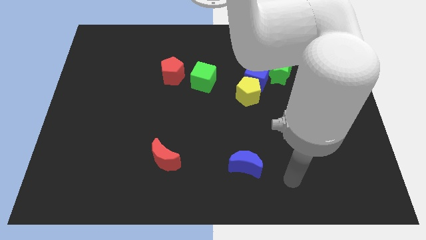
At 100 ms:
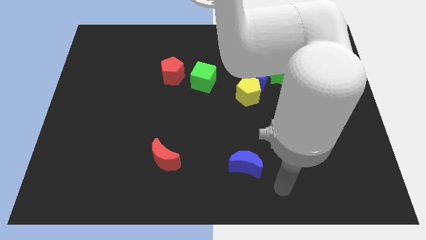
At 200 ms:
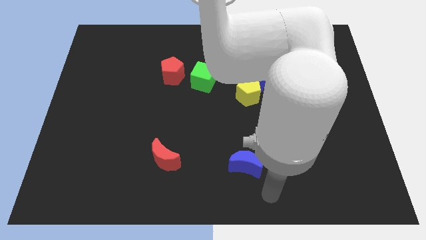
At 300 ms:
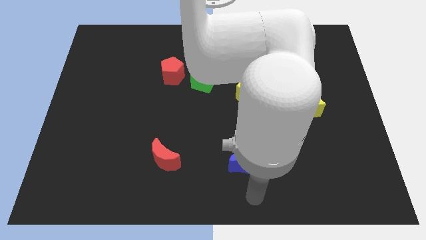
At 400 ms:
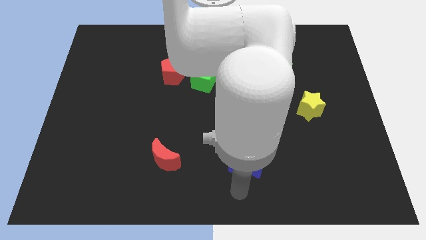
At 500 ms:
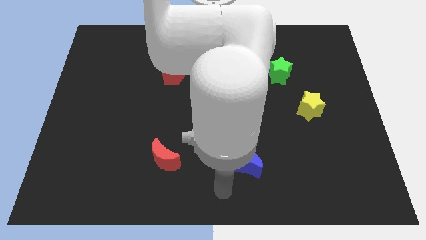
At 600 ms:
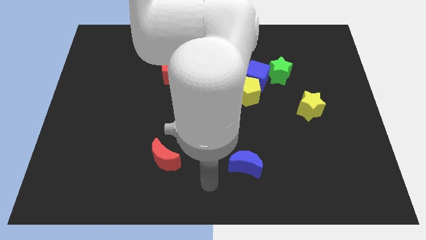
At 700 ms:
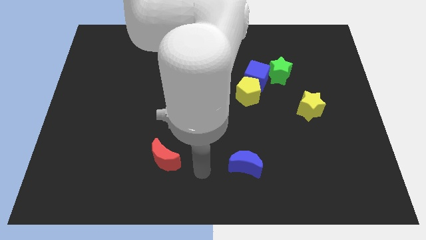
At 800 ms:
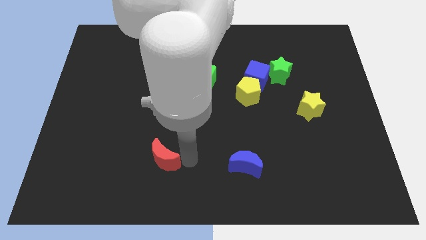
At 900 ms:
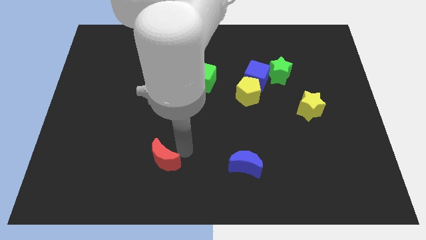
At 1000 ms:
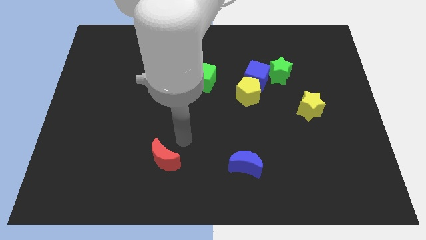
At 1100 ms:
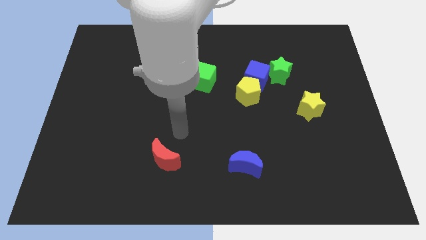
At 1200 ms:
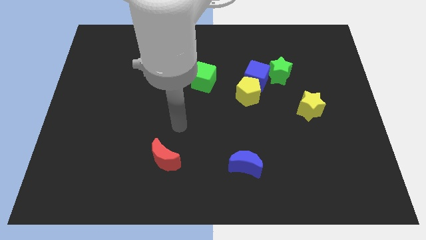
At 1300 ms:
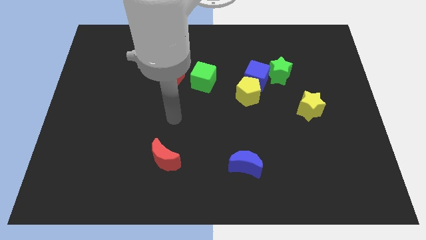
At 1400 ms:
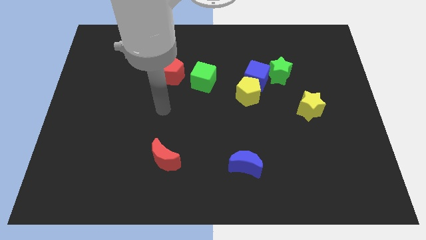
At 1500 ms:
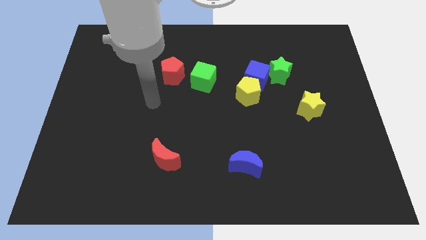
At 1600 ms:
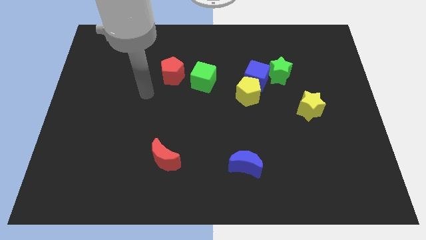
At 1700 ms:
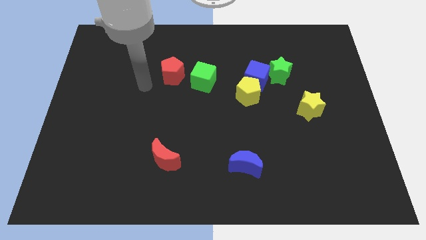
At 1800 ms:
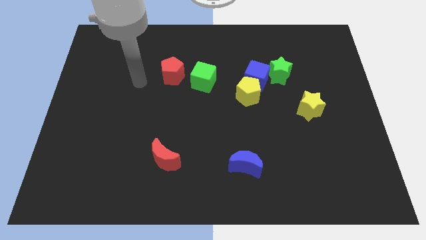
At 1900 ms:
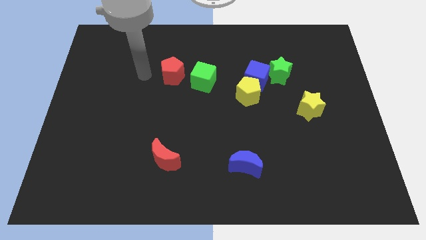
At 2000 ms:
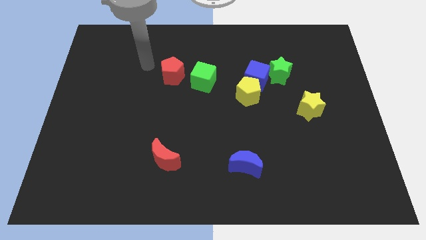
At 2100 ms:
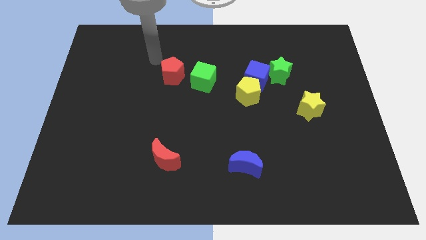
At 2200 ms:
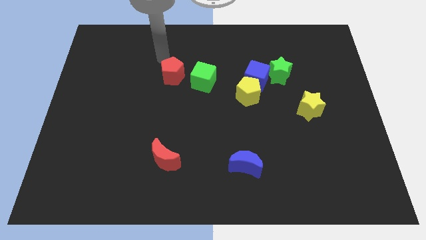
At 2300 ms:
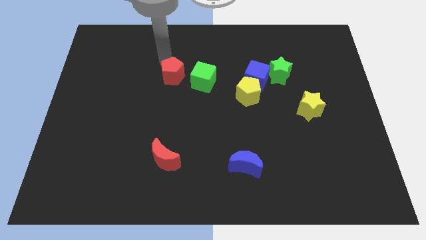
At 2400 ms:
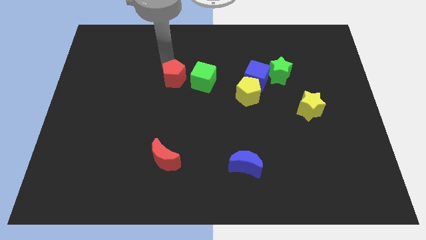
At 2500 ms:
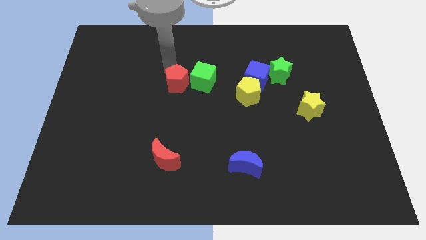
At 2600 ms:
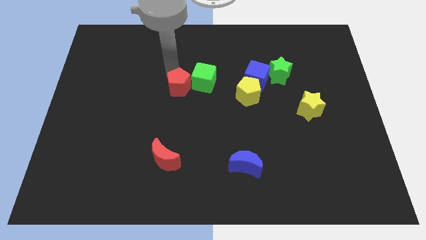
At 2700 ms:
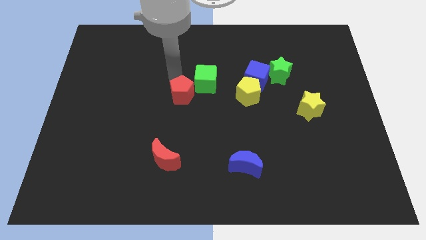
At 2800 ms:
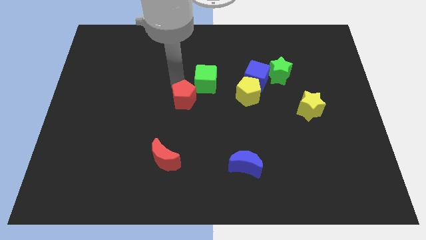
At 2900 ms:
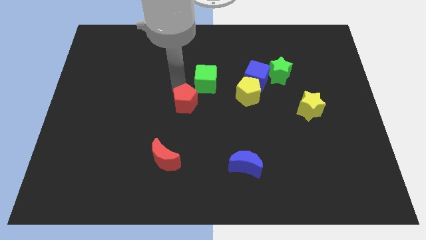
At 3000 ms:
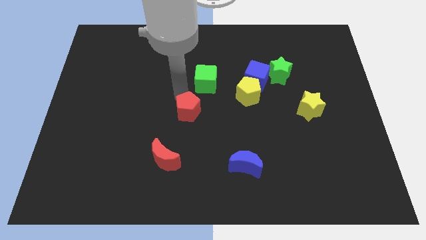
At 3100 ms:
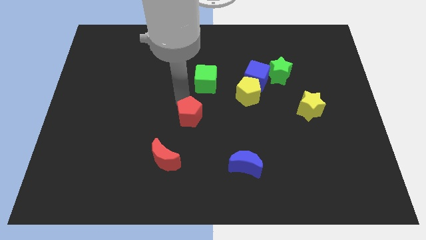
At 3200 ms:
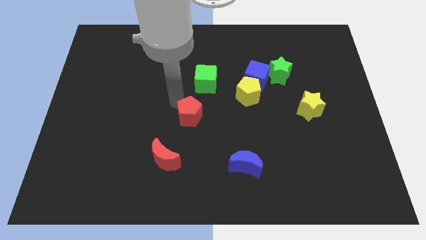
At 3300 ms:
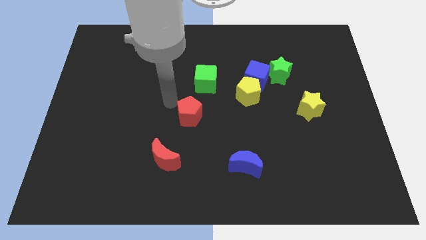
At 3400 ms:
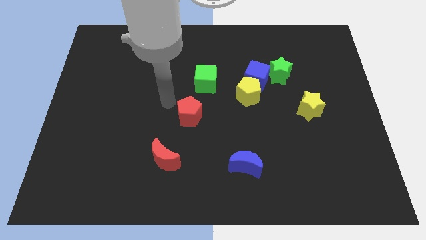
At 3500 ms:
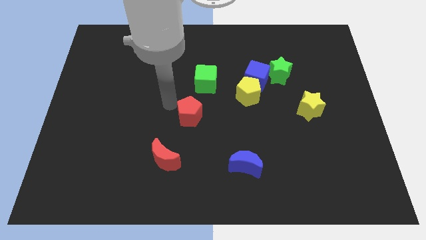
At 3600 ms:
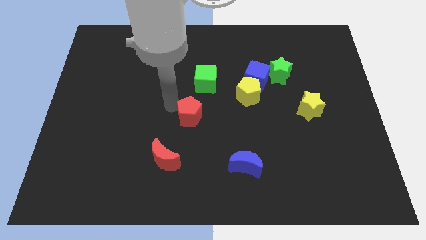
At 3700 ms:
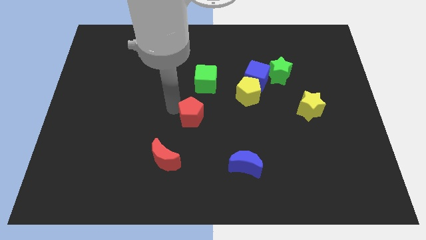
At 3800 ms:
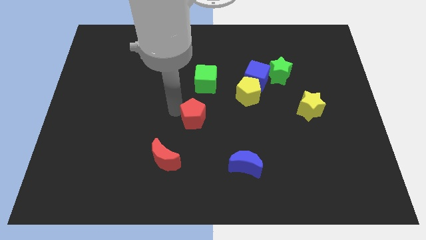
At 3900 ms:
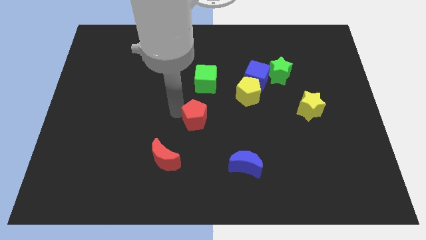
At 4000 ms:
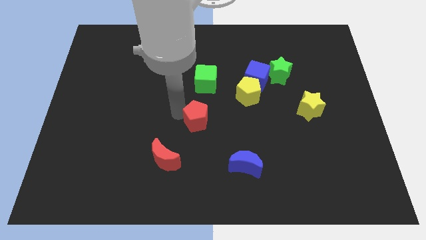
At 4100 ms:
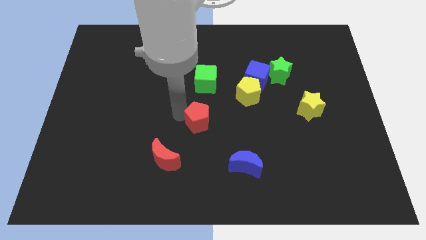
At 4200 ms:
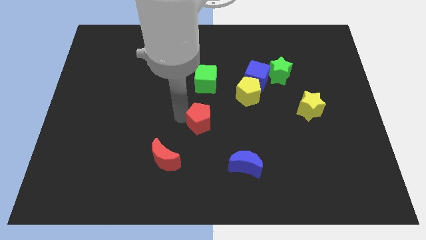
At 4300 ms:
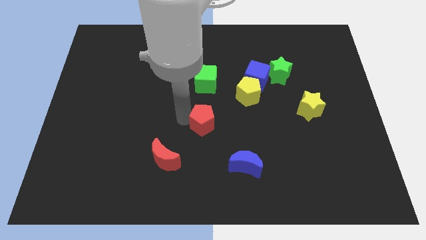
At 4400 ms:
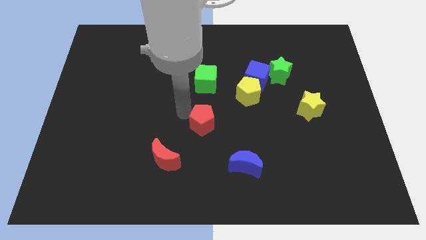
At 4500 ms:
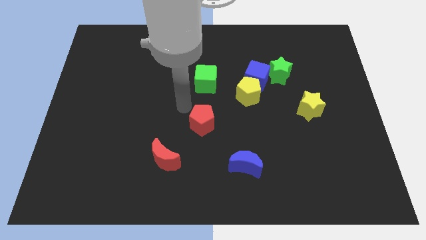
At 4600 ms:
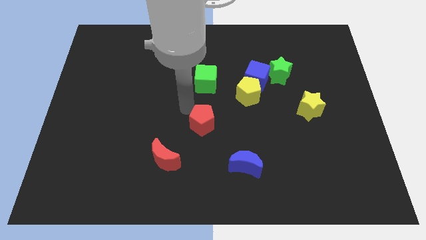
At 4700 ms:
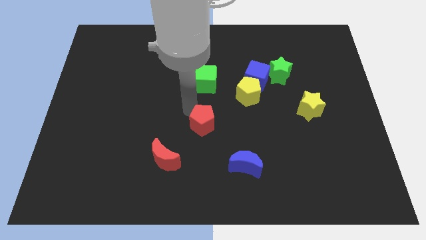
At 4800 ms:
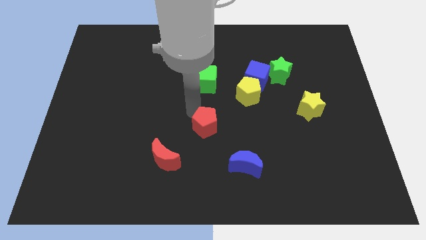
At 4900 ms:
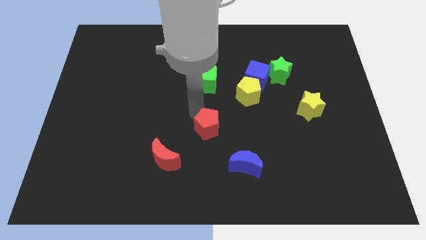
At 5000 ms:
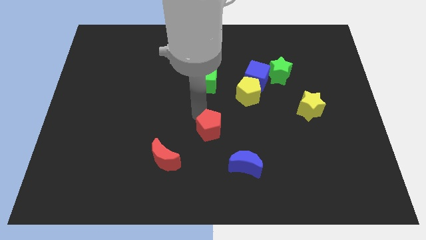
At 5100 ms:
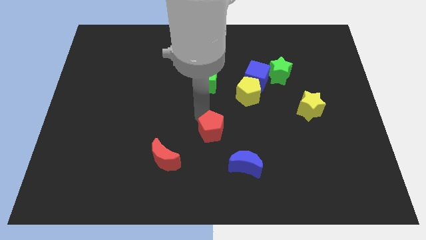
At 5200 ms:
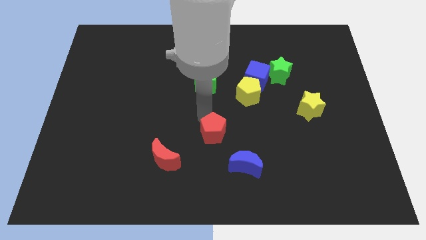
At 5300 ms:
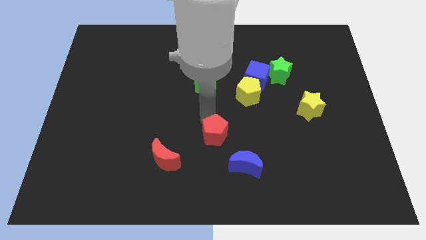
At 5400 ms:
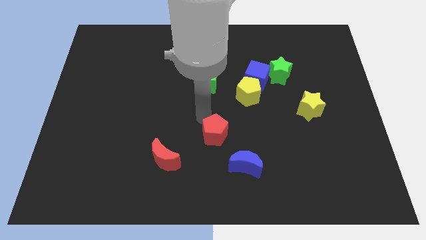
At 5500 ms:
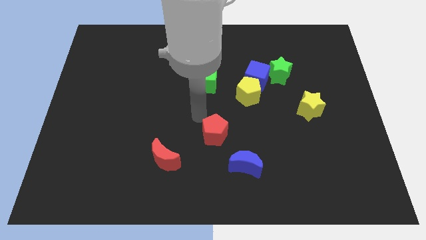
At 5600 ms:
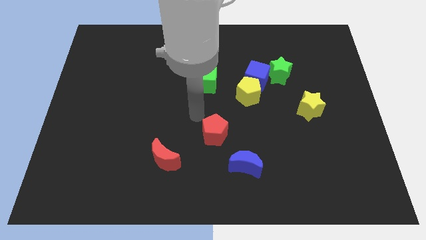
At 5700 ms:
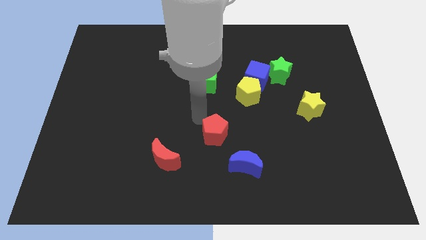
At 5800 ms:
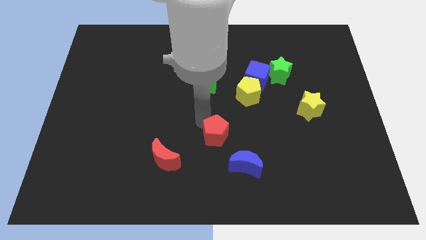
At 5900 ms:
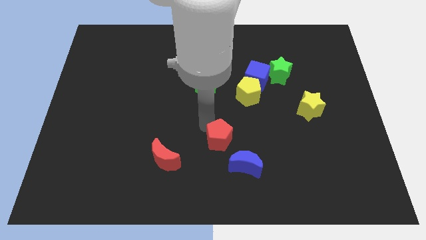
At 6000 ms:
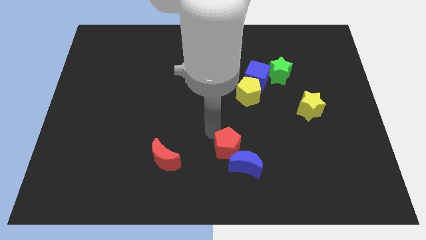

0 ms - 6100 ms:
put the red pentagon next to the blue moon

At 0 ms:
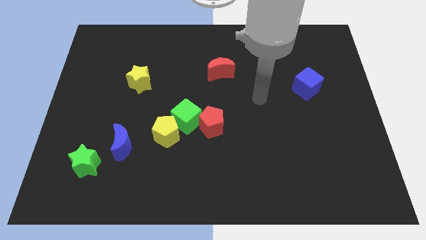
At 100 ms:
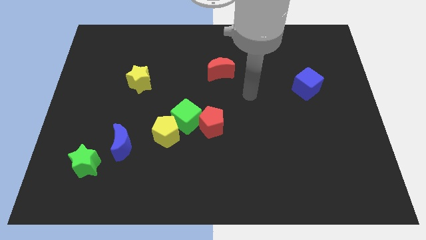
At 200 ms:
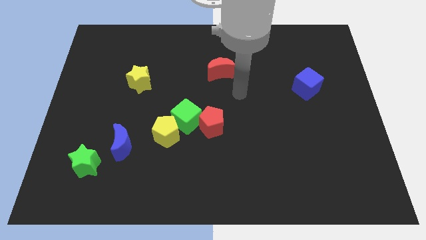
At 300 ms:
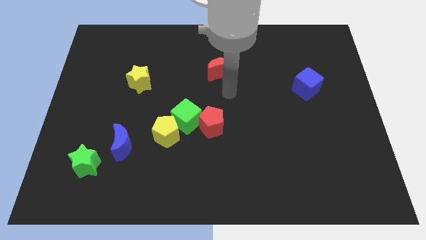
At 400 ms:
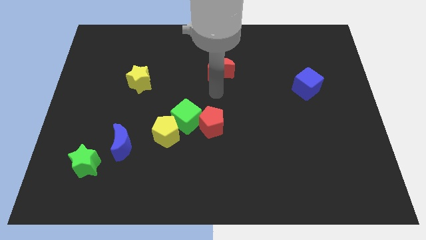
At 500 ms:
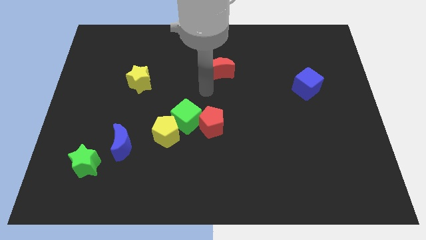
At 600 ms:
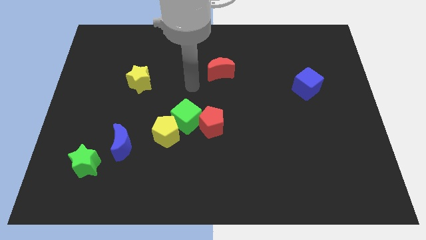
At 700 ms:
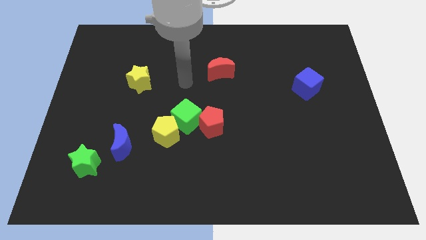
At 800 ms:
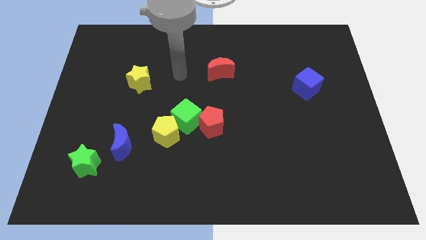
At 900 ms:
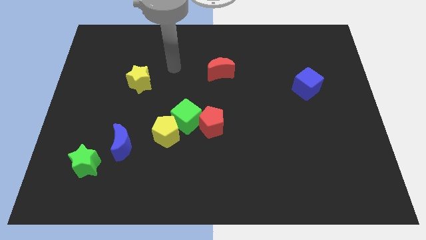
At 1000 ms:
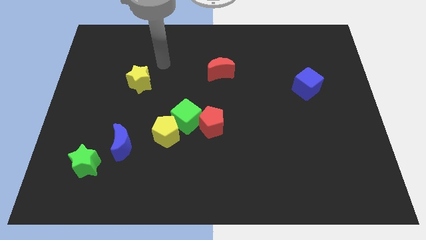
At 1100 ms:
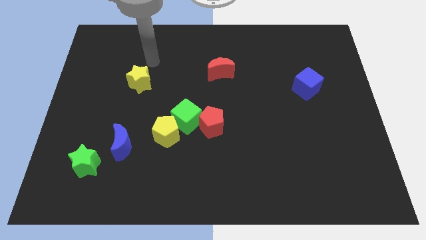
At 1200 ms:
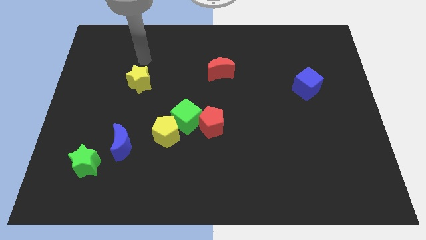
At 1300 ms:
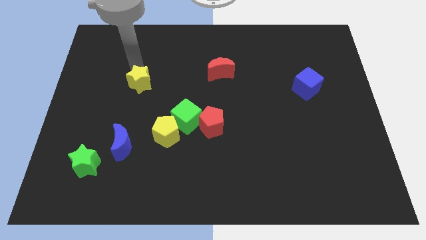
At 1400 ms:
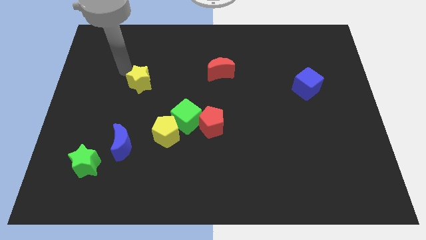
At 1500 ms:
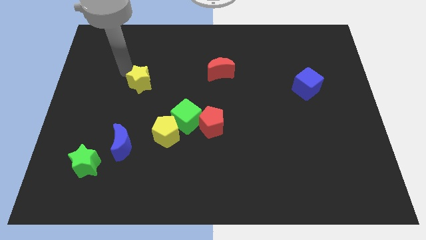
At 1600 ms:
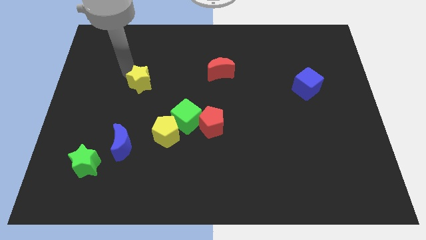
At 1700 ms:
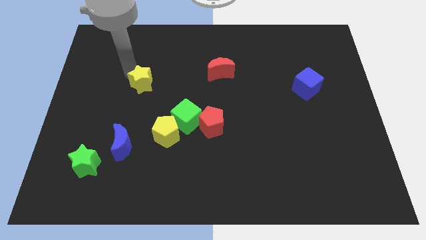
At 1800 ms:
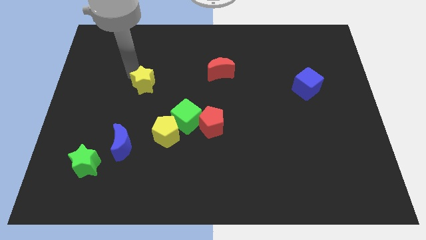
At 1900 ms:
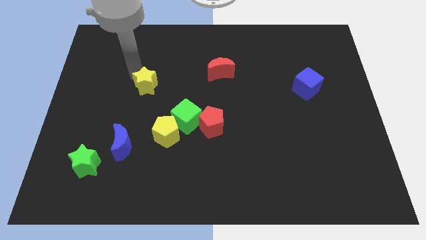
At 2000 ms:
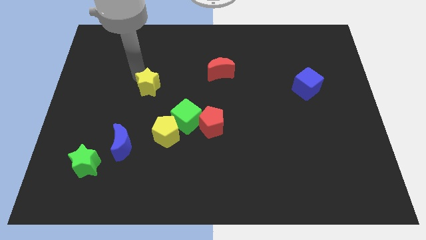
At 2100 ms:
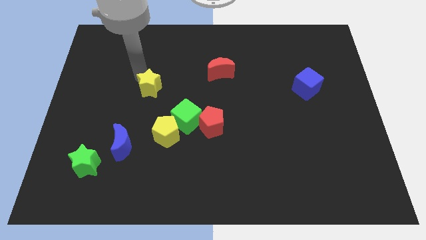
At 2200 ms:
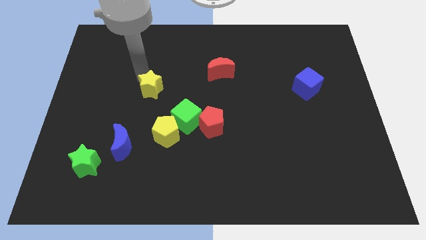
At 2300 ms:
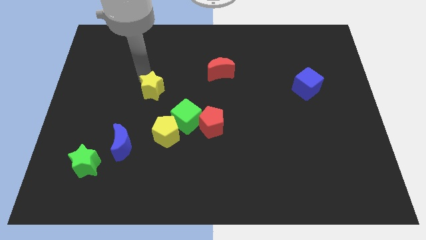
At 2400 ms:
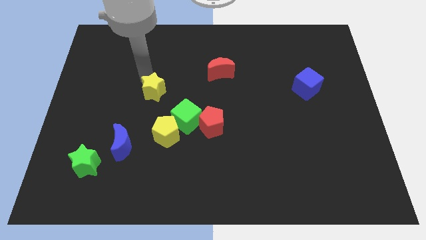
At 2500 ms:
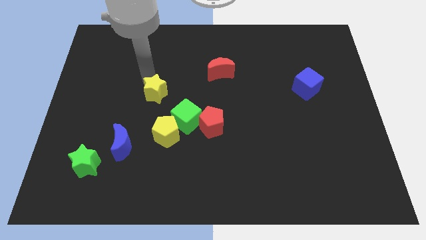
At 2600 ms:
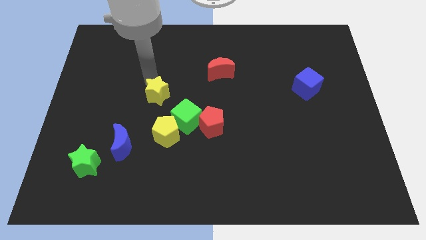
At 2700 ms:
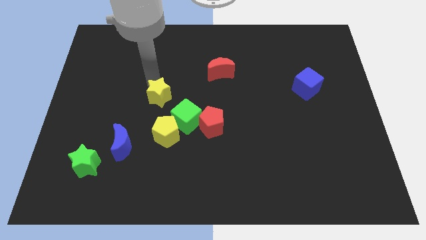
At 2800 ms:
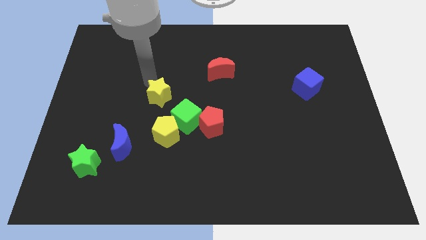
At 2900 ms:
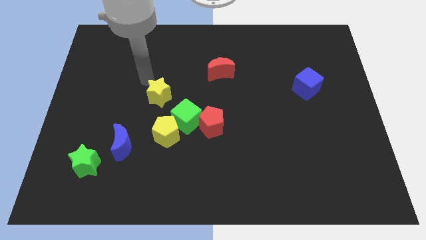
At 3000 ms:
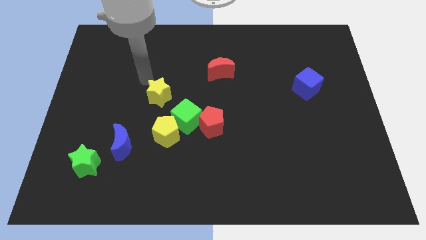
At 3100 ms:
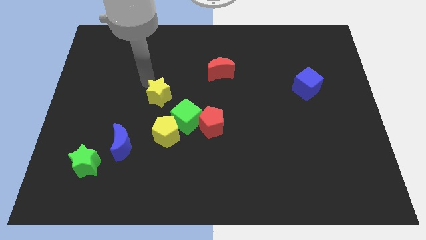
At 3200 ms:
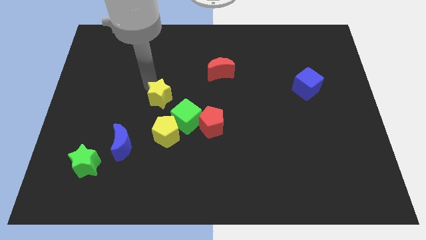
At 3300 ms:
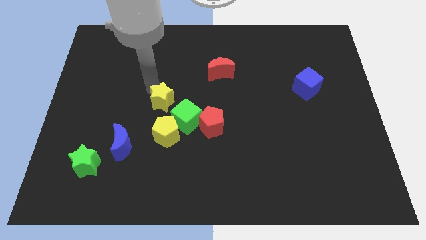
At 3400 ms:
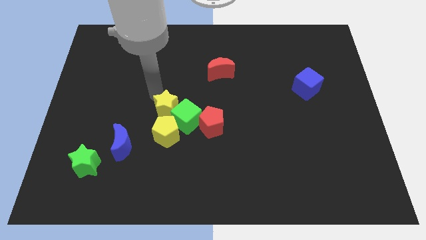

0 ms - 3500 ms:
move the yellow star towards the green cube
